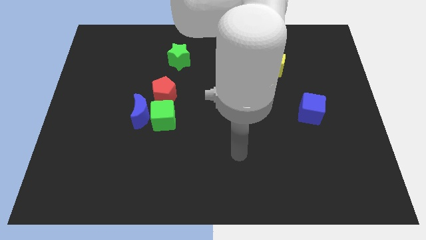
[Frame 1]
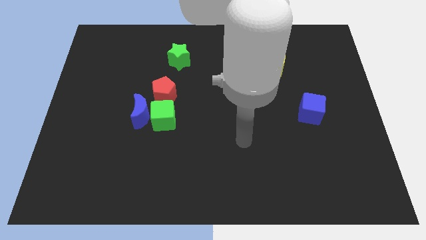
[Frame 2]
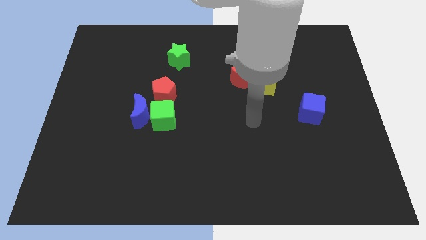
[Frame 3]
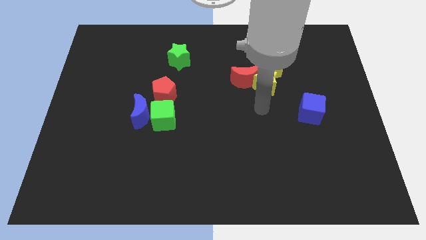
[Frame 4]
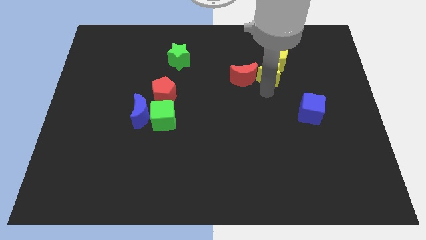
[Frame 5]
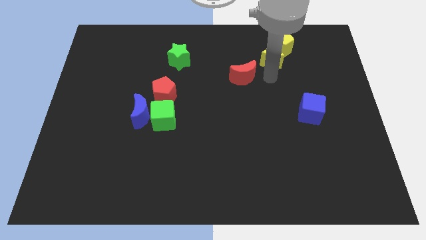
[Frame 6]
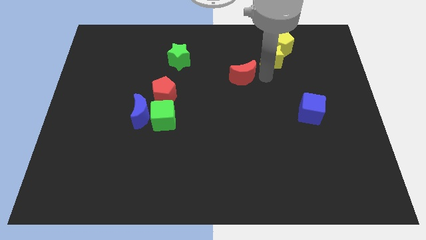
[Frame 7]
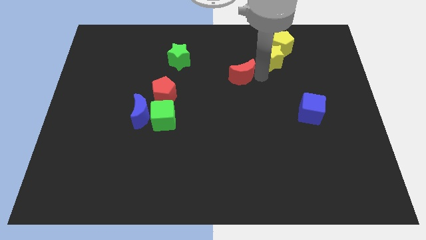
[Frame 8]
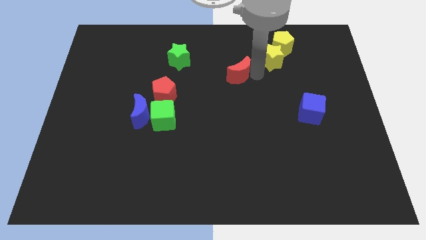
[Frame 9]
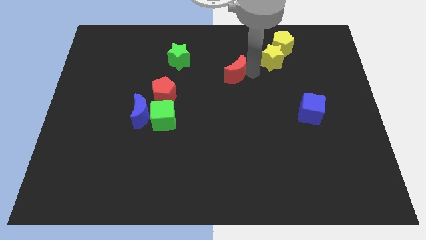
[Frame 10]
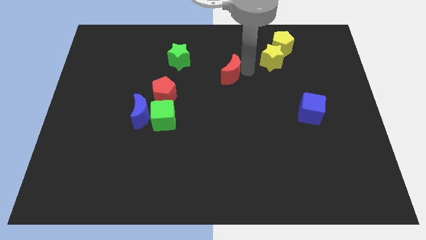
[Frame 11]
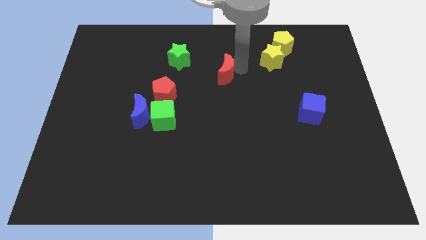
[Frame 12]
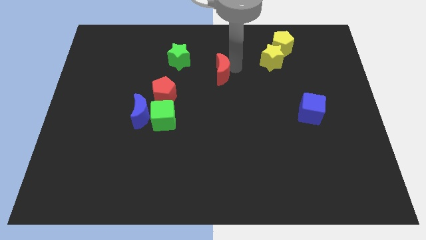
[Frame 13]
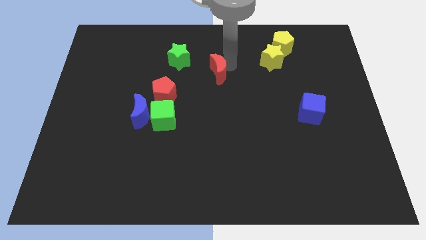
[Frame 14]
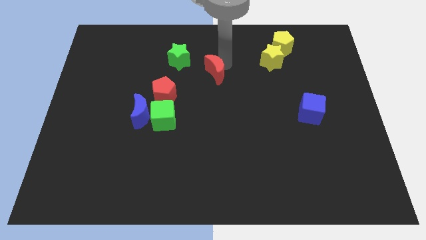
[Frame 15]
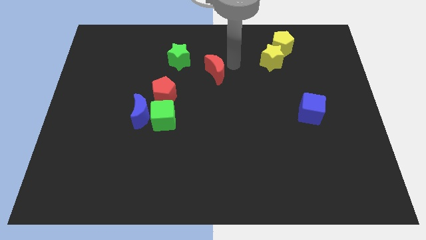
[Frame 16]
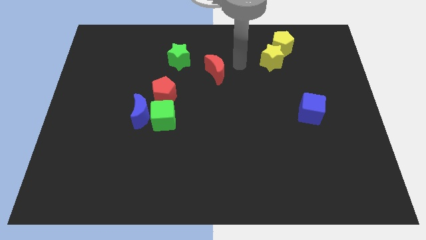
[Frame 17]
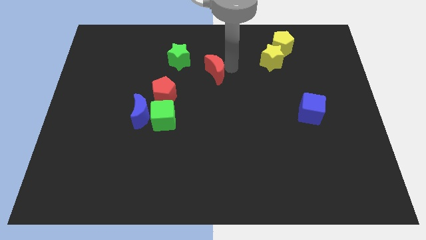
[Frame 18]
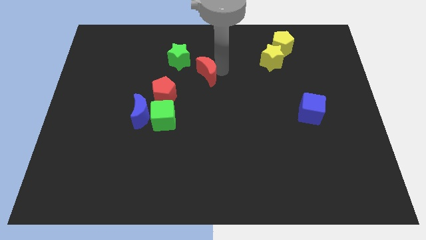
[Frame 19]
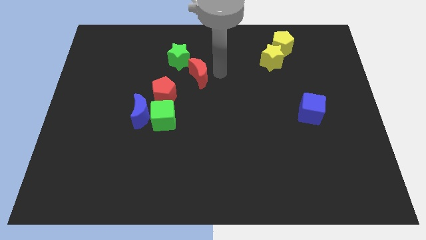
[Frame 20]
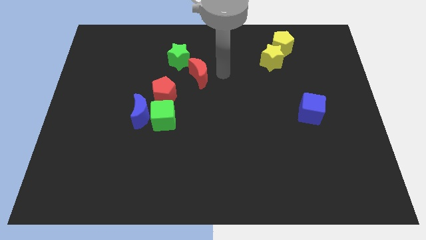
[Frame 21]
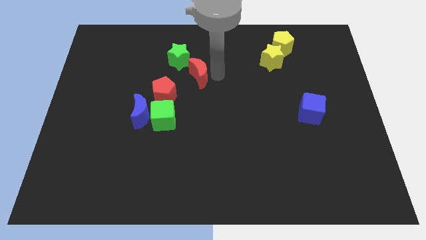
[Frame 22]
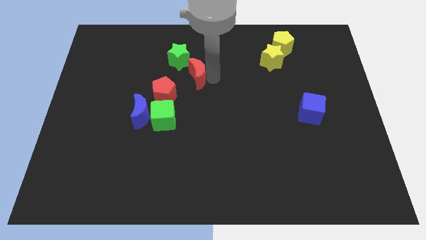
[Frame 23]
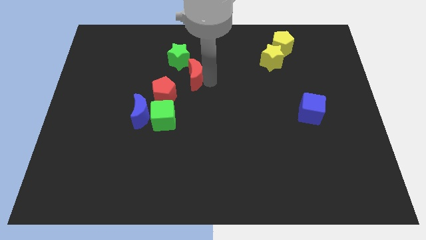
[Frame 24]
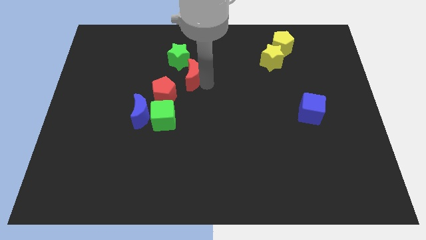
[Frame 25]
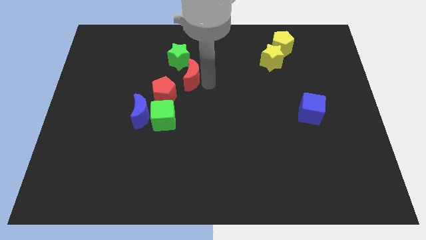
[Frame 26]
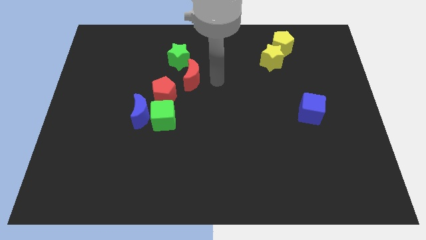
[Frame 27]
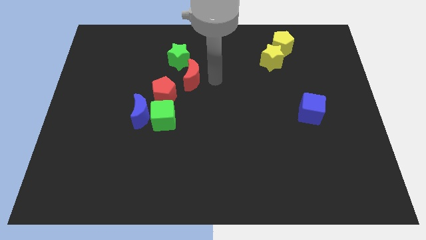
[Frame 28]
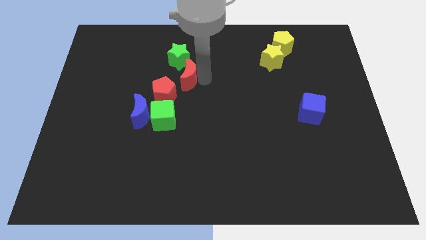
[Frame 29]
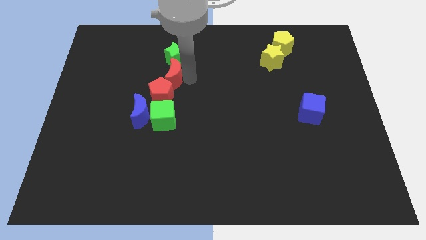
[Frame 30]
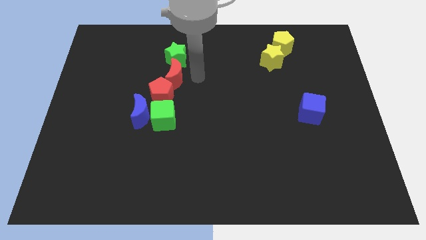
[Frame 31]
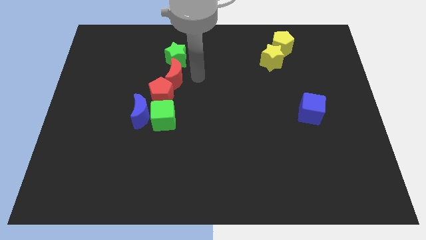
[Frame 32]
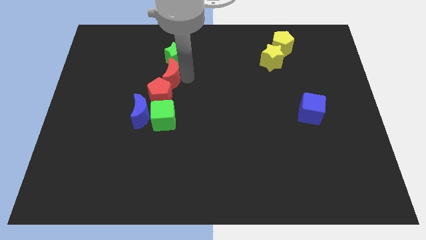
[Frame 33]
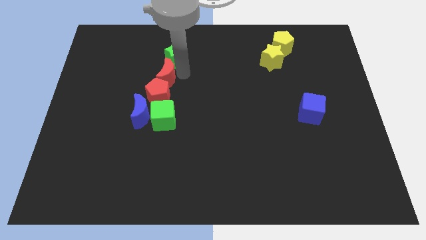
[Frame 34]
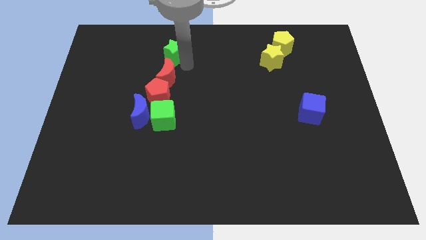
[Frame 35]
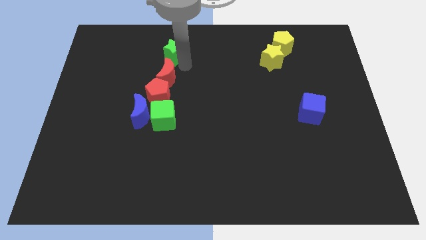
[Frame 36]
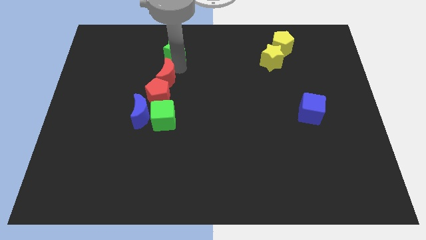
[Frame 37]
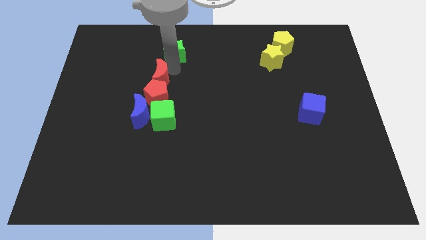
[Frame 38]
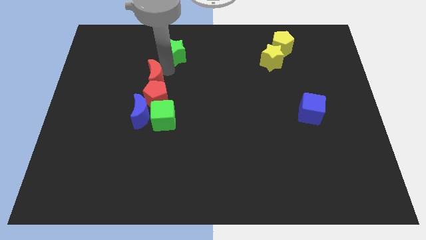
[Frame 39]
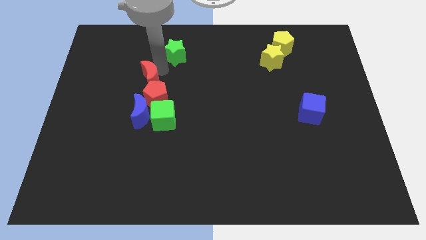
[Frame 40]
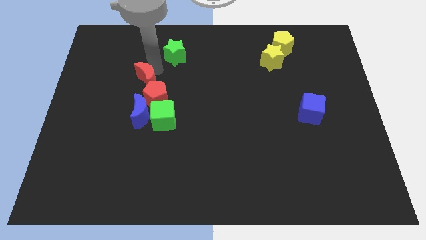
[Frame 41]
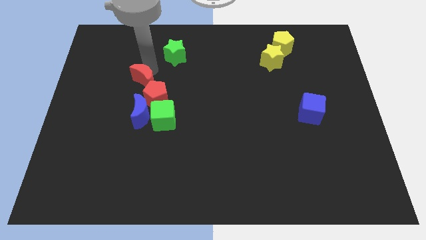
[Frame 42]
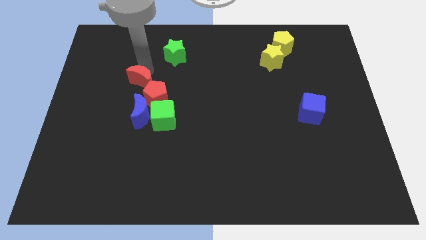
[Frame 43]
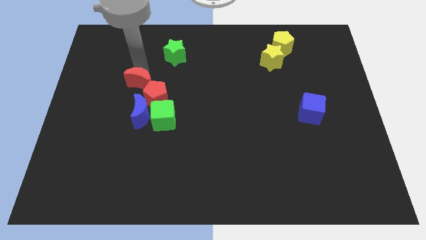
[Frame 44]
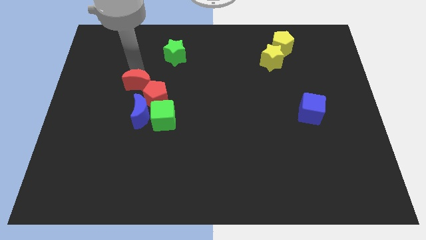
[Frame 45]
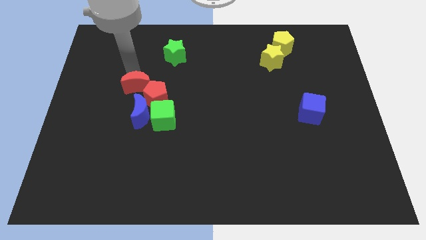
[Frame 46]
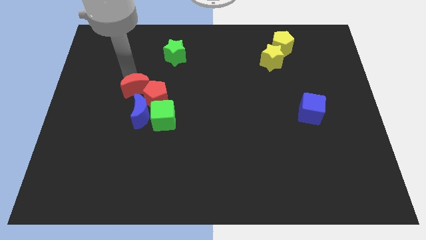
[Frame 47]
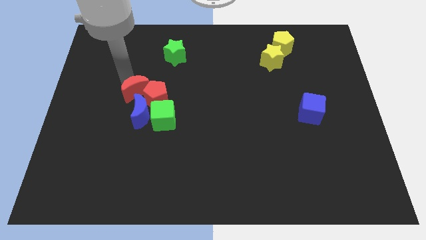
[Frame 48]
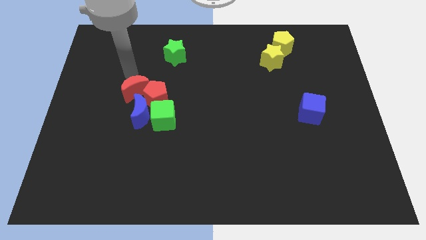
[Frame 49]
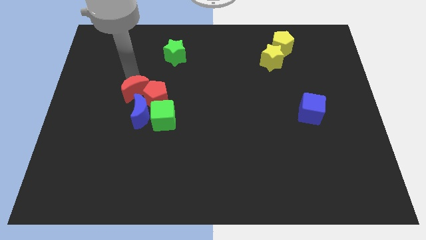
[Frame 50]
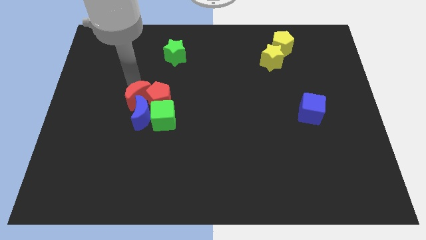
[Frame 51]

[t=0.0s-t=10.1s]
slide the red moon towards the blue moon

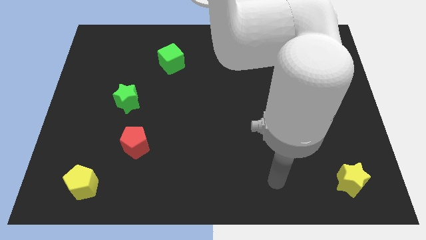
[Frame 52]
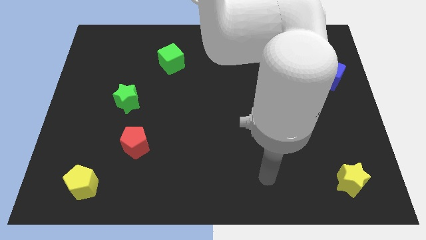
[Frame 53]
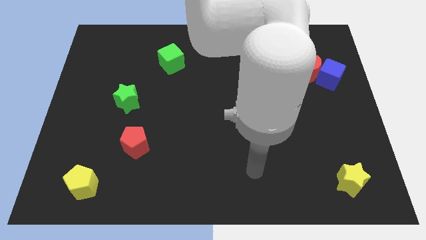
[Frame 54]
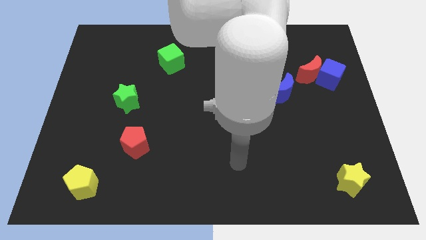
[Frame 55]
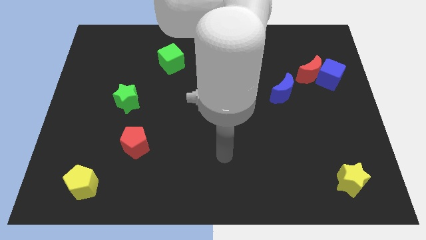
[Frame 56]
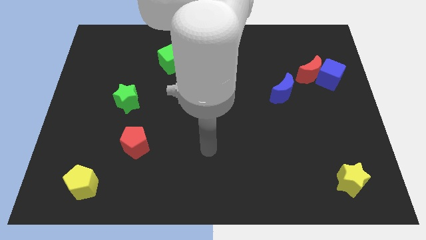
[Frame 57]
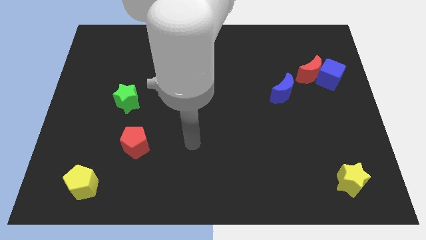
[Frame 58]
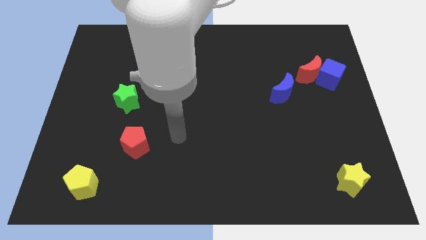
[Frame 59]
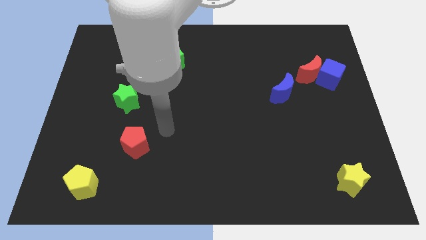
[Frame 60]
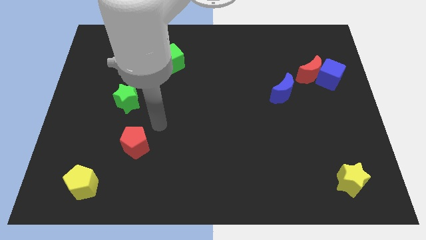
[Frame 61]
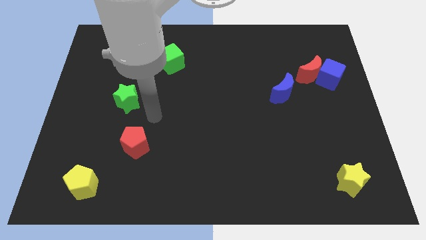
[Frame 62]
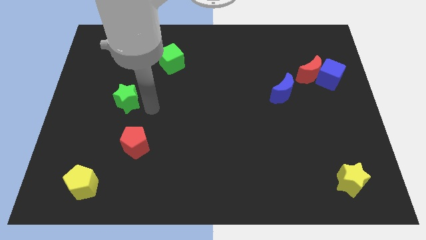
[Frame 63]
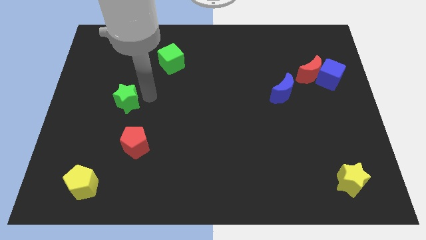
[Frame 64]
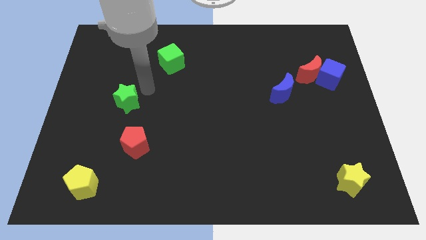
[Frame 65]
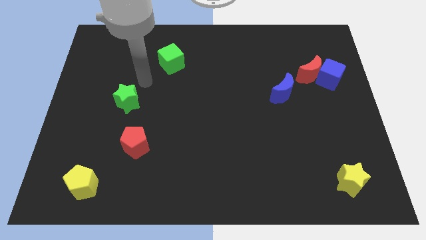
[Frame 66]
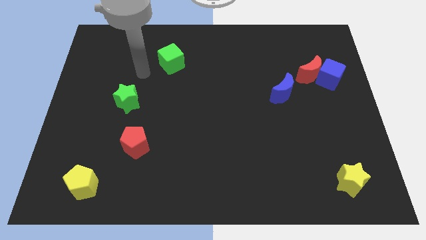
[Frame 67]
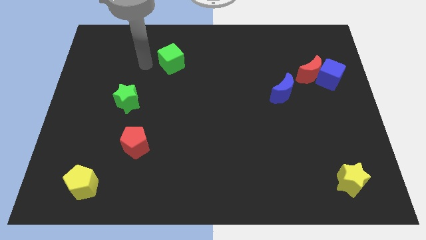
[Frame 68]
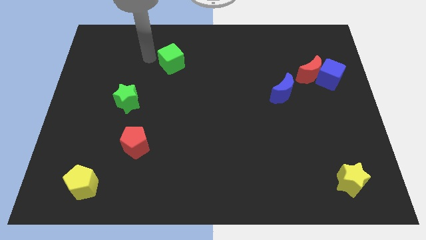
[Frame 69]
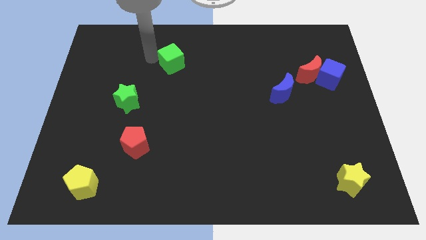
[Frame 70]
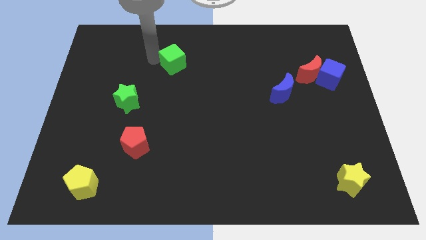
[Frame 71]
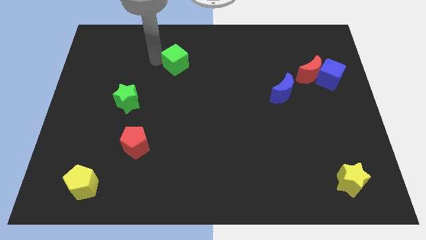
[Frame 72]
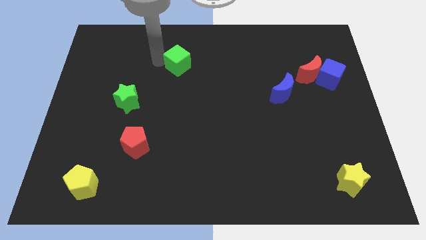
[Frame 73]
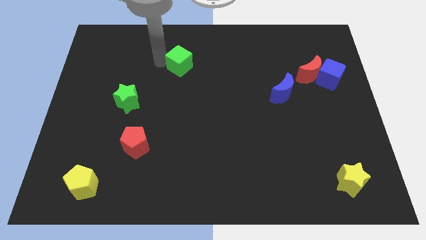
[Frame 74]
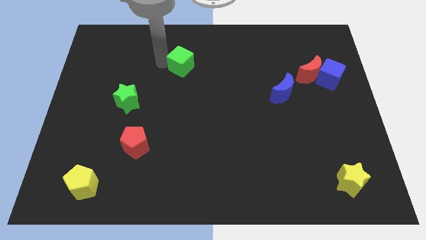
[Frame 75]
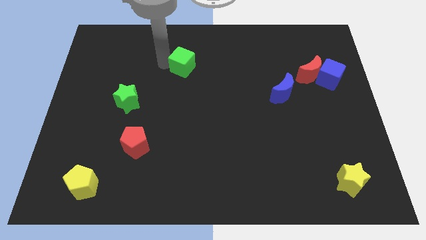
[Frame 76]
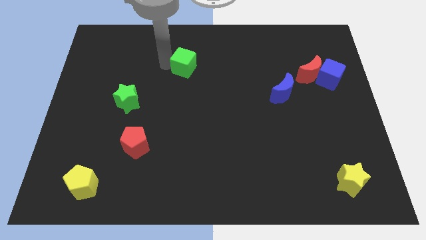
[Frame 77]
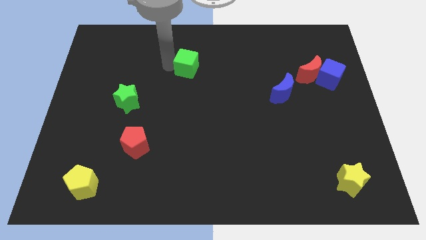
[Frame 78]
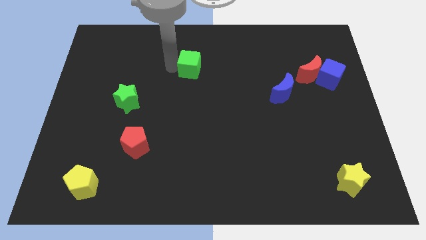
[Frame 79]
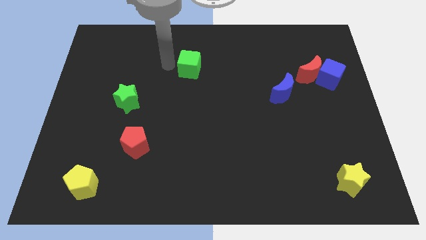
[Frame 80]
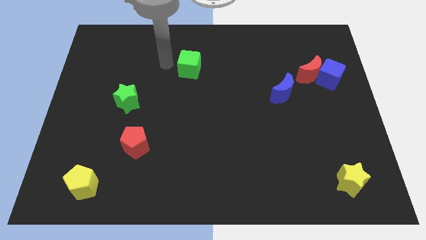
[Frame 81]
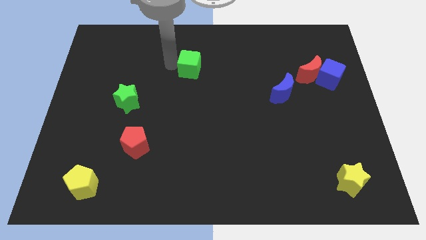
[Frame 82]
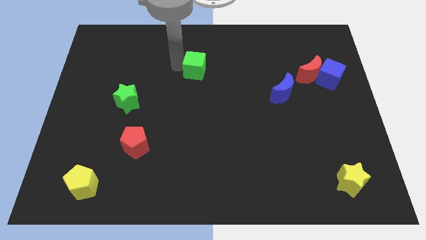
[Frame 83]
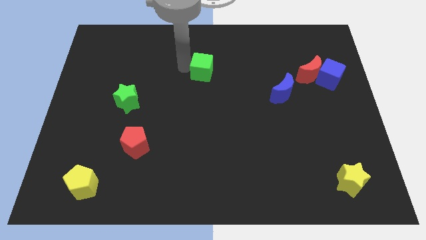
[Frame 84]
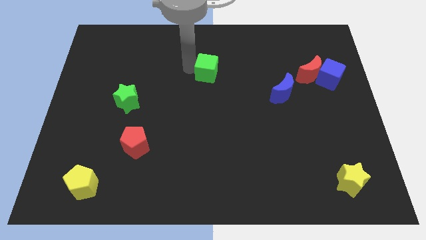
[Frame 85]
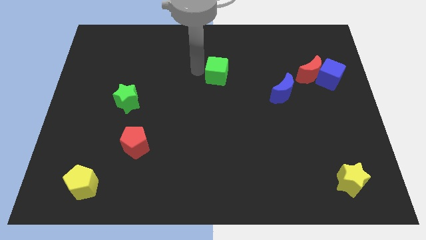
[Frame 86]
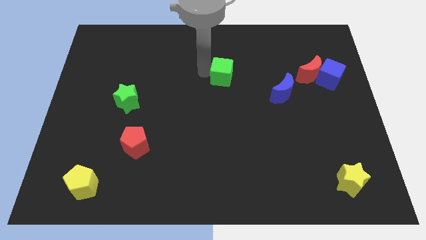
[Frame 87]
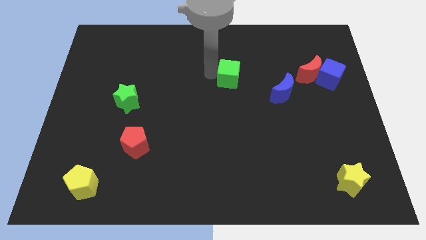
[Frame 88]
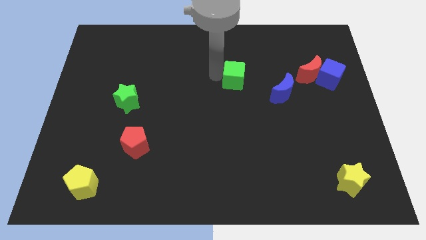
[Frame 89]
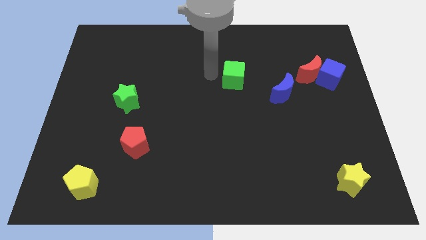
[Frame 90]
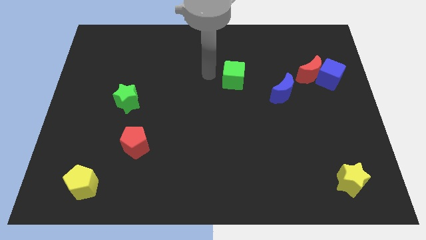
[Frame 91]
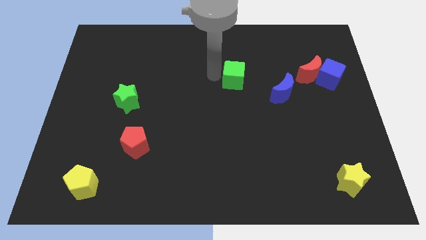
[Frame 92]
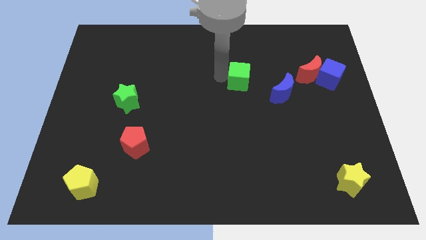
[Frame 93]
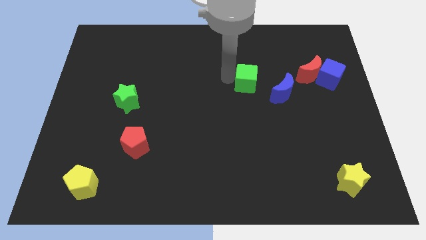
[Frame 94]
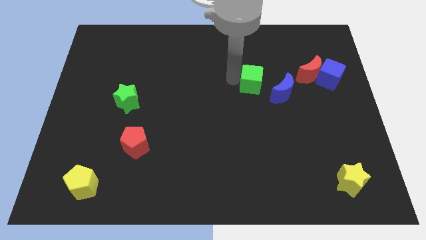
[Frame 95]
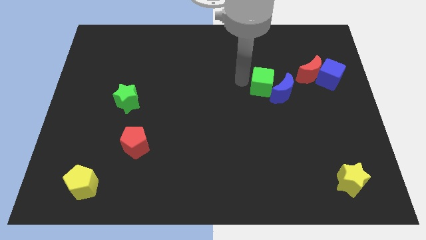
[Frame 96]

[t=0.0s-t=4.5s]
push the green cube to the blue moon
